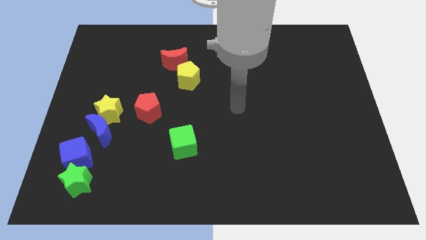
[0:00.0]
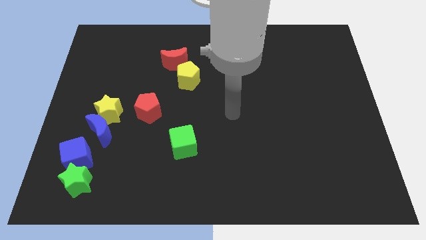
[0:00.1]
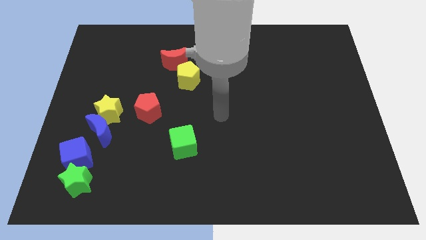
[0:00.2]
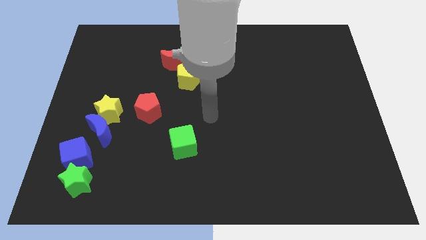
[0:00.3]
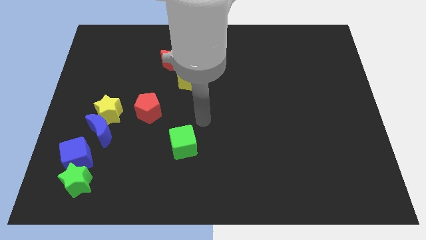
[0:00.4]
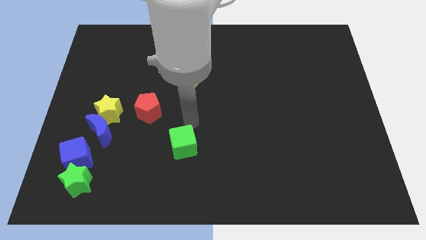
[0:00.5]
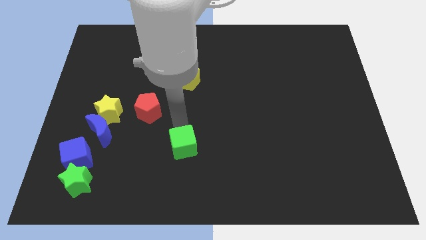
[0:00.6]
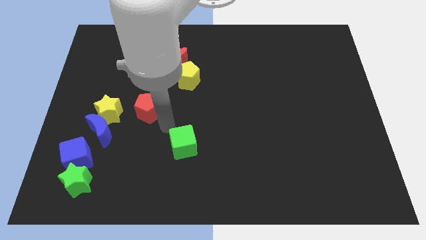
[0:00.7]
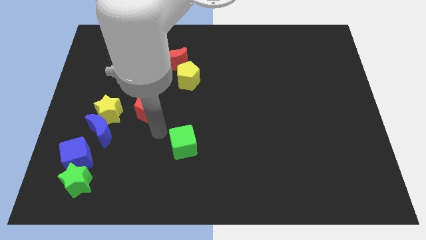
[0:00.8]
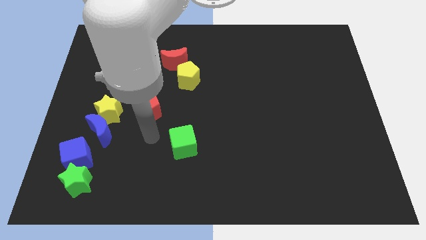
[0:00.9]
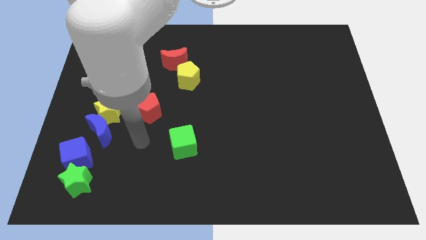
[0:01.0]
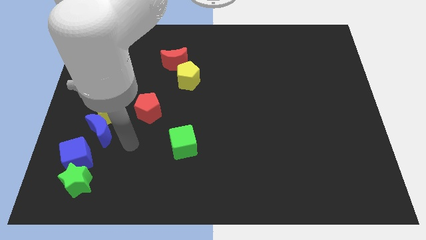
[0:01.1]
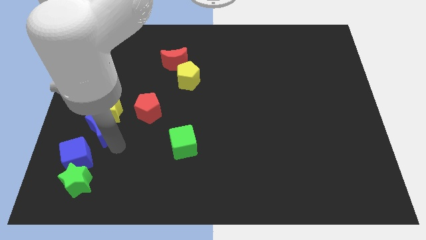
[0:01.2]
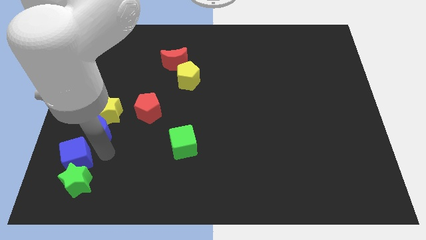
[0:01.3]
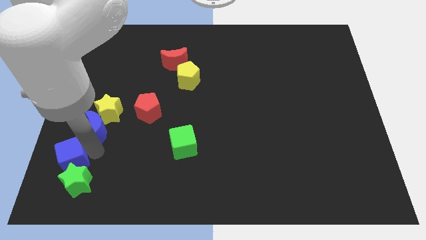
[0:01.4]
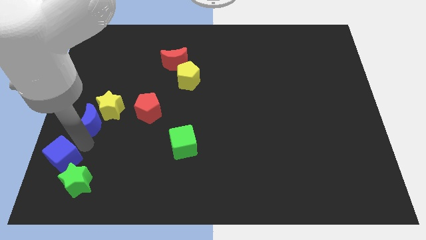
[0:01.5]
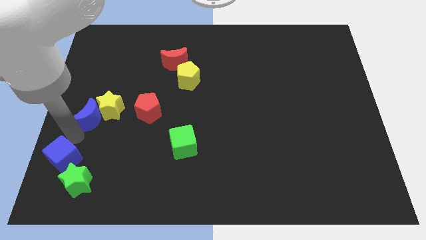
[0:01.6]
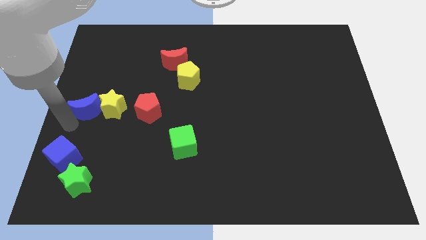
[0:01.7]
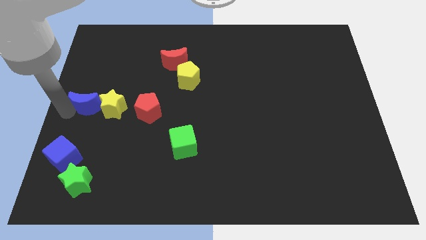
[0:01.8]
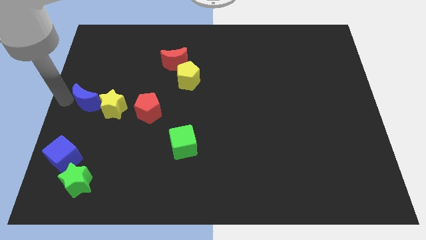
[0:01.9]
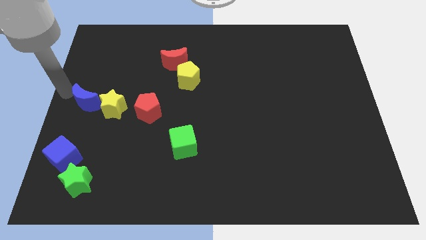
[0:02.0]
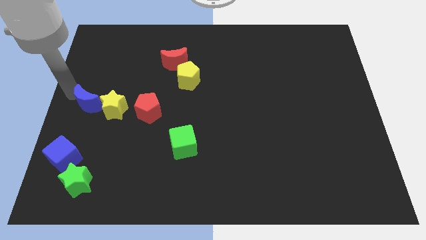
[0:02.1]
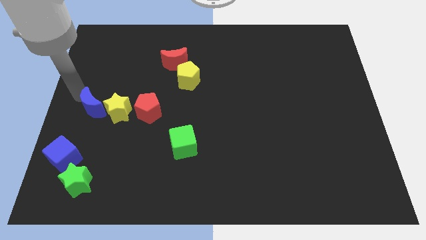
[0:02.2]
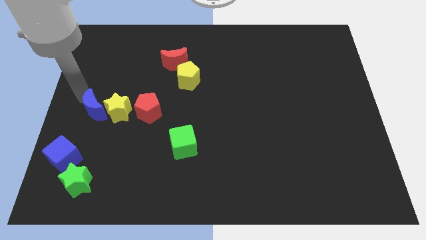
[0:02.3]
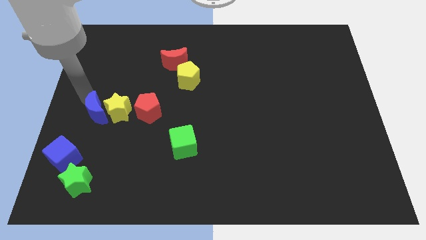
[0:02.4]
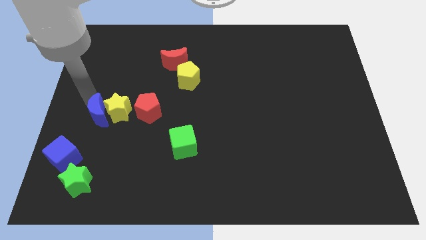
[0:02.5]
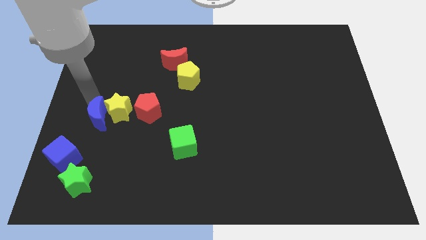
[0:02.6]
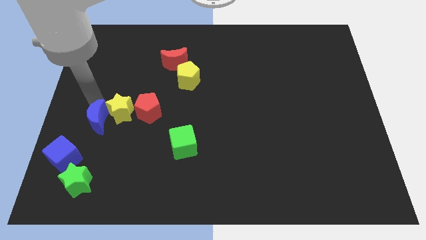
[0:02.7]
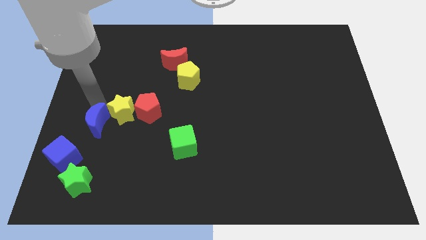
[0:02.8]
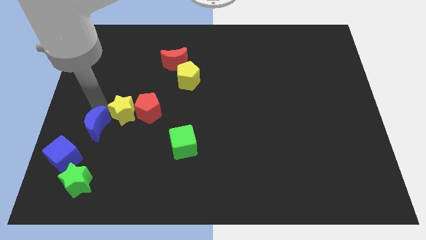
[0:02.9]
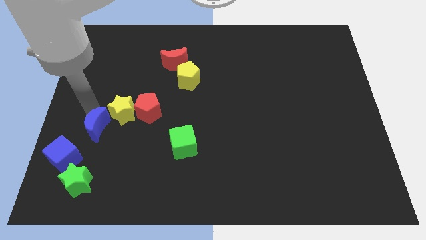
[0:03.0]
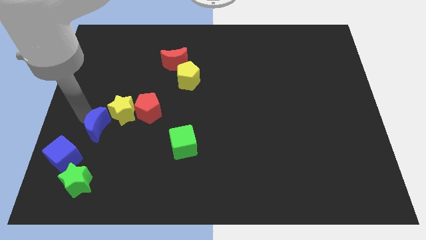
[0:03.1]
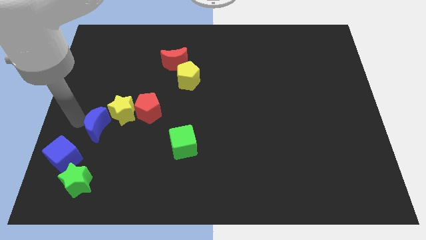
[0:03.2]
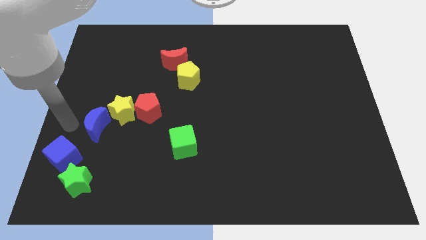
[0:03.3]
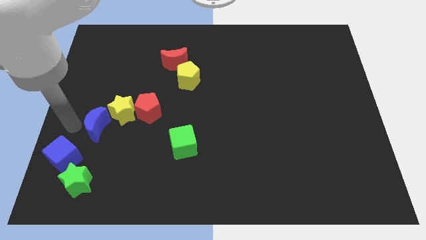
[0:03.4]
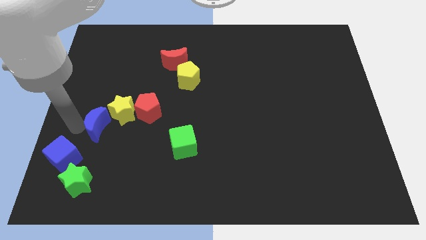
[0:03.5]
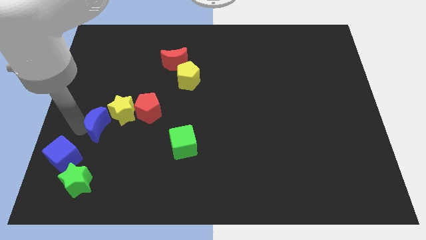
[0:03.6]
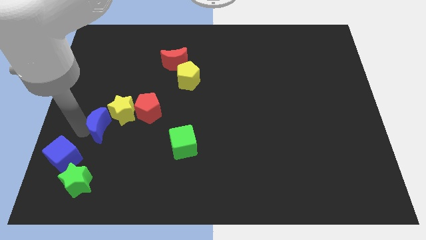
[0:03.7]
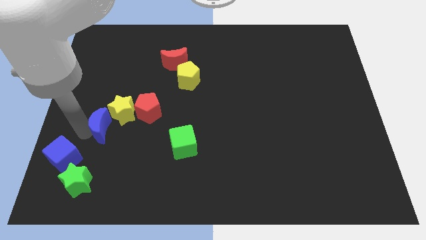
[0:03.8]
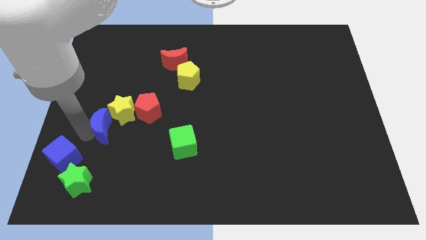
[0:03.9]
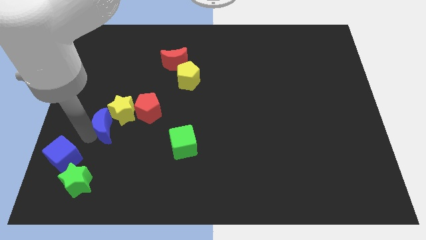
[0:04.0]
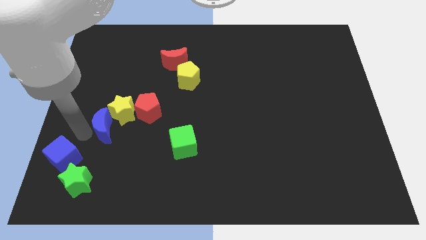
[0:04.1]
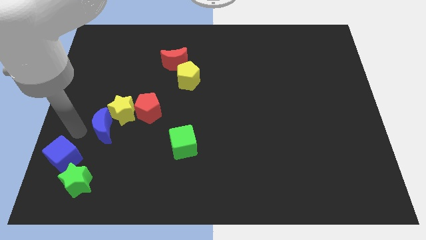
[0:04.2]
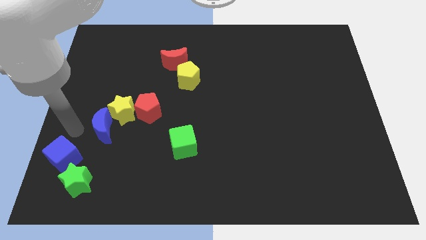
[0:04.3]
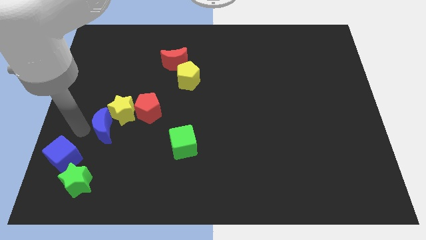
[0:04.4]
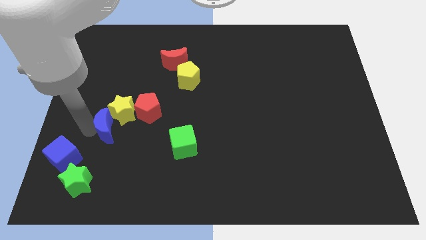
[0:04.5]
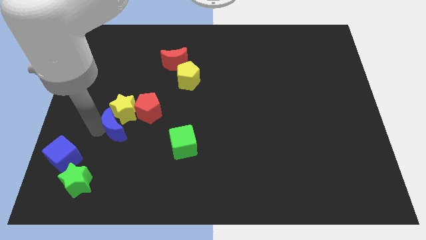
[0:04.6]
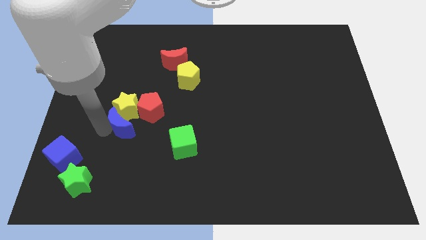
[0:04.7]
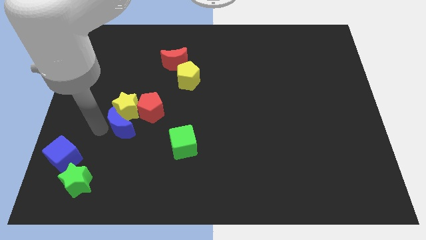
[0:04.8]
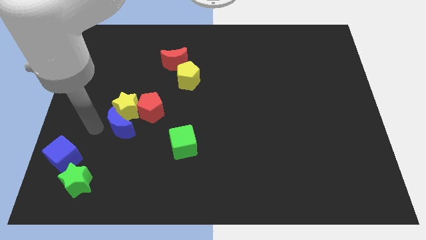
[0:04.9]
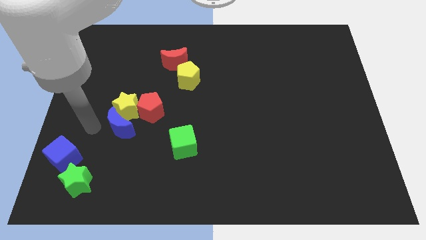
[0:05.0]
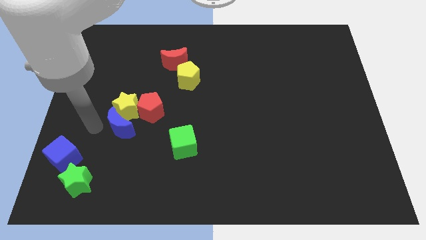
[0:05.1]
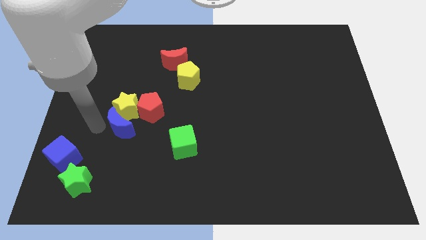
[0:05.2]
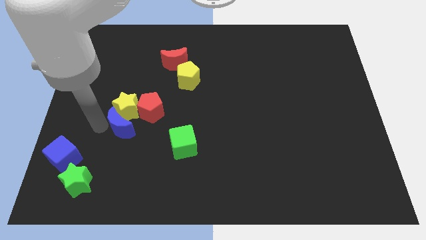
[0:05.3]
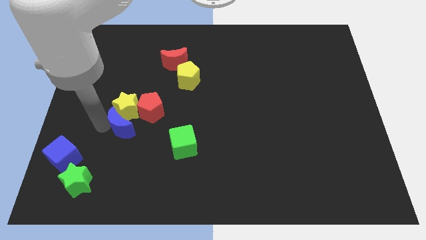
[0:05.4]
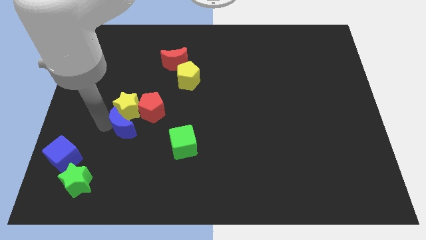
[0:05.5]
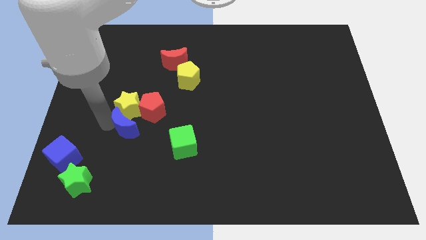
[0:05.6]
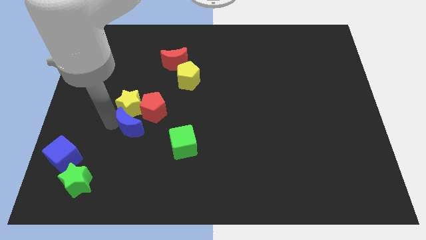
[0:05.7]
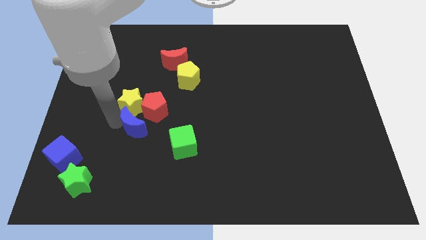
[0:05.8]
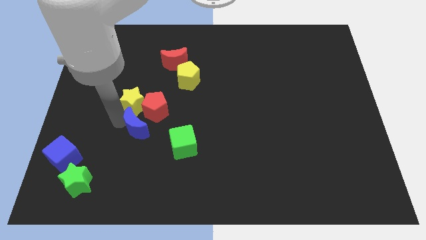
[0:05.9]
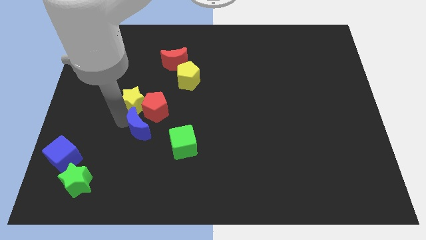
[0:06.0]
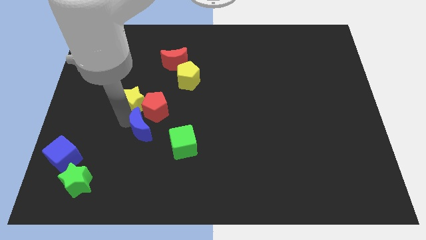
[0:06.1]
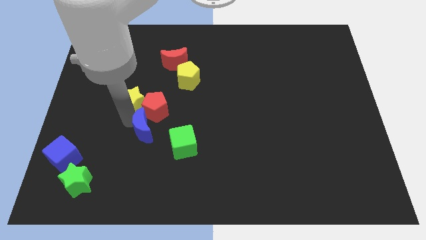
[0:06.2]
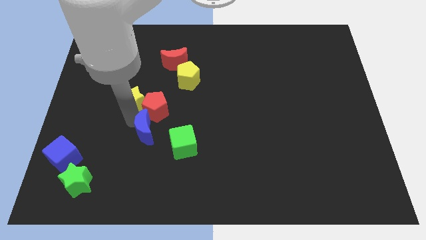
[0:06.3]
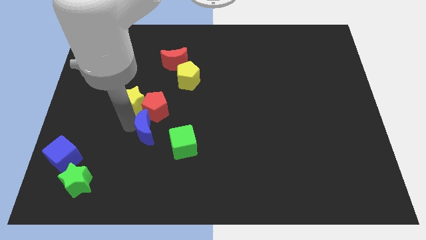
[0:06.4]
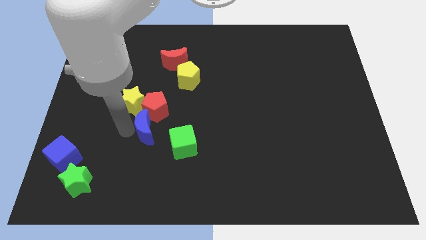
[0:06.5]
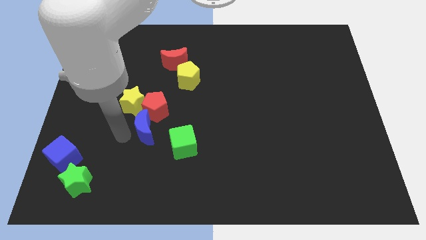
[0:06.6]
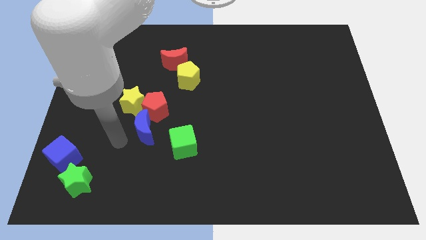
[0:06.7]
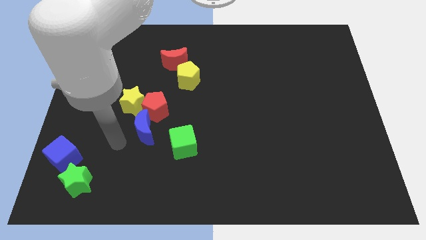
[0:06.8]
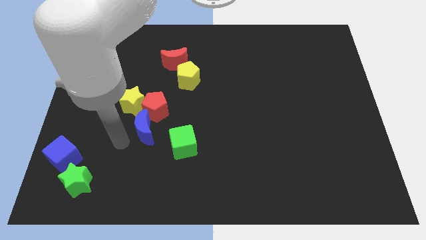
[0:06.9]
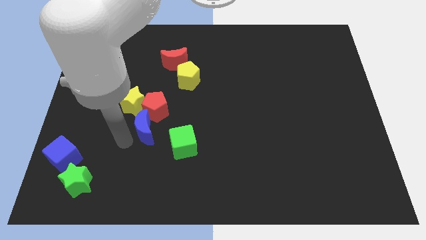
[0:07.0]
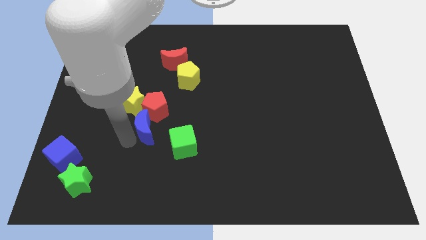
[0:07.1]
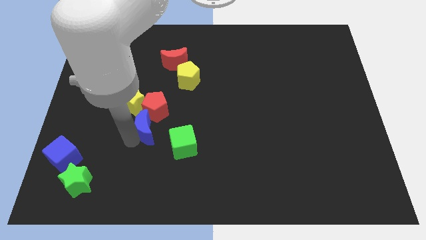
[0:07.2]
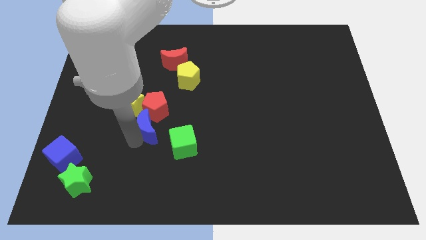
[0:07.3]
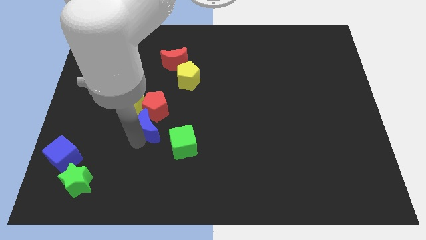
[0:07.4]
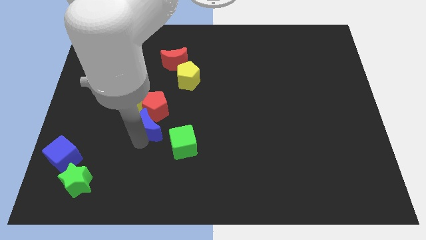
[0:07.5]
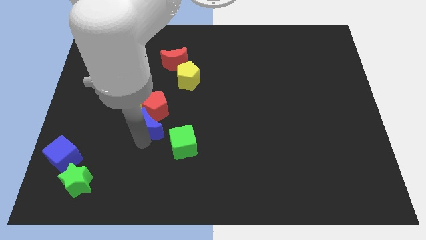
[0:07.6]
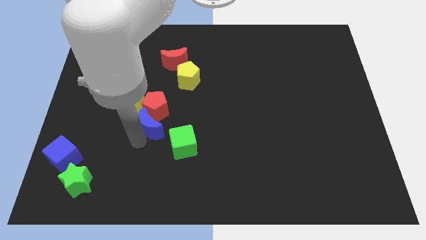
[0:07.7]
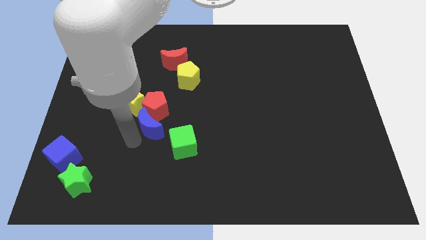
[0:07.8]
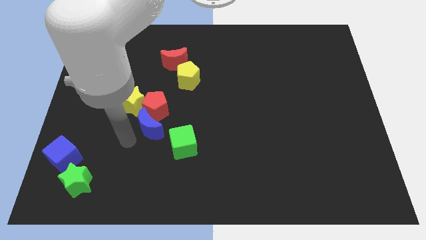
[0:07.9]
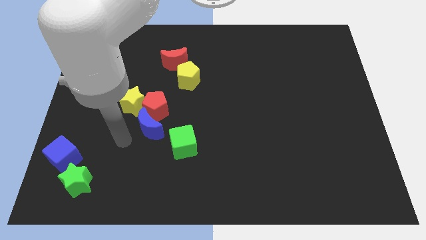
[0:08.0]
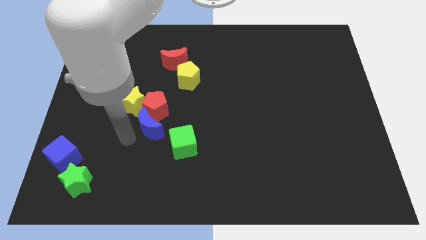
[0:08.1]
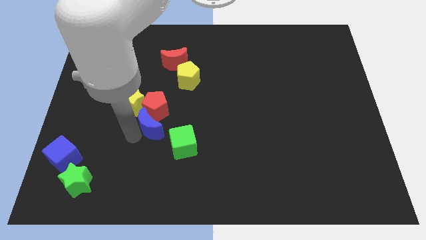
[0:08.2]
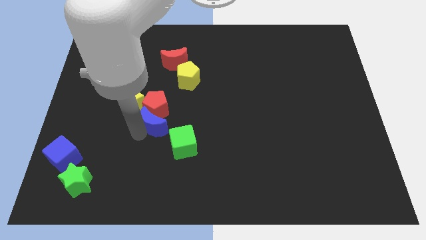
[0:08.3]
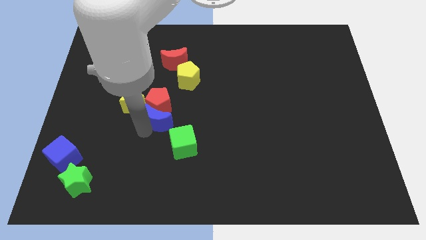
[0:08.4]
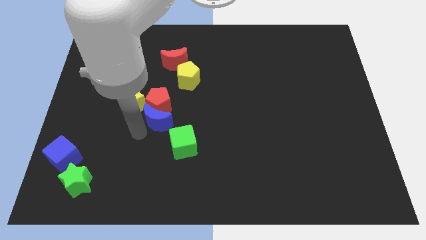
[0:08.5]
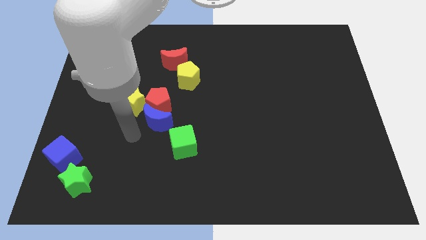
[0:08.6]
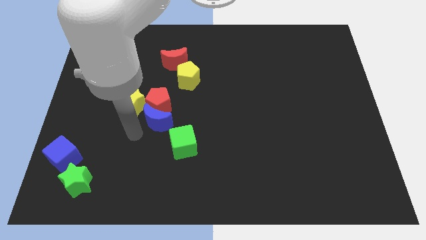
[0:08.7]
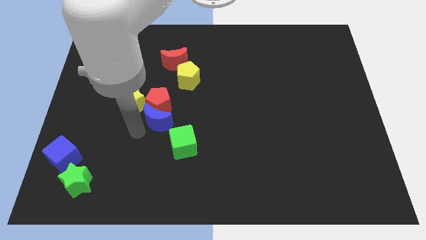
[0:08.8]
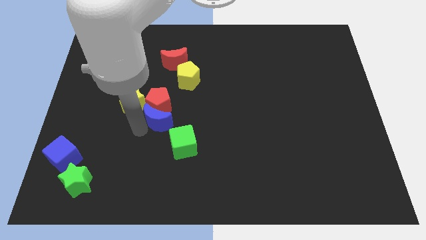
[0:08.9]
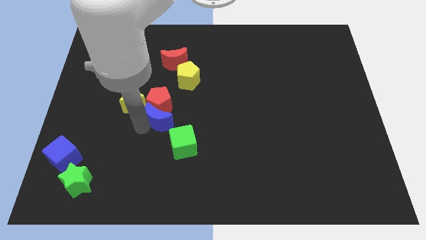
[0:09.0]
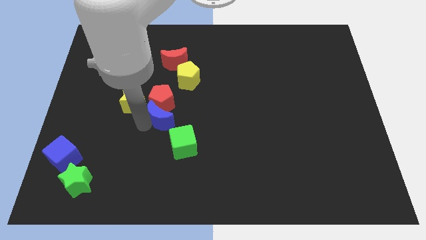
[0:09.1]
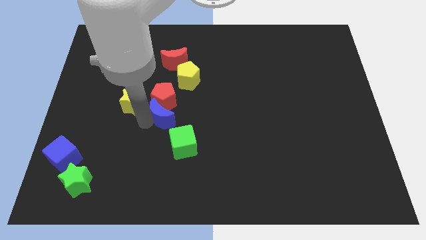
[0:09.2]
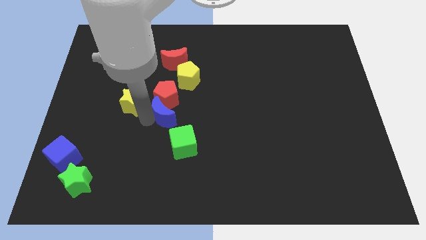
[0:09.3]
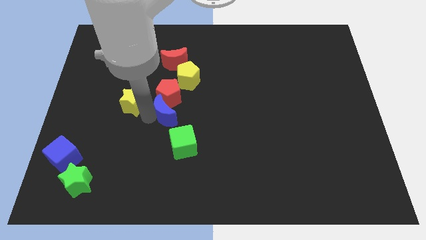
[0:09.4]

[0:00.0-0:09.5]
move the blue moon to the top side of the green cube
